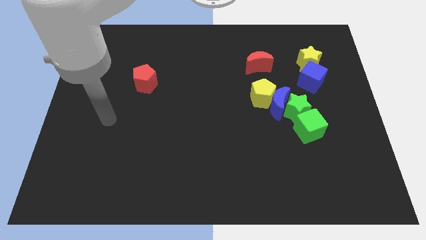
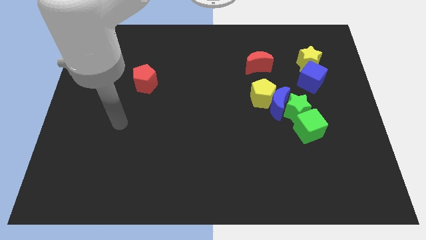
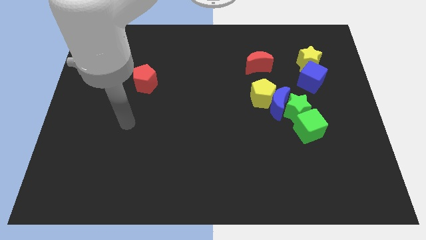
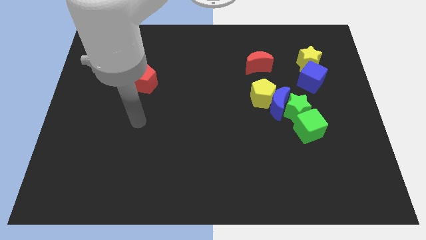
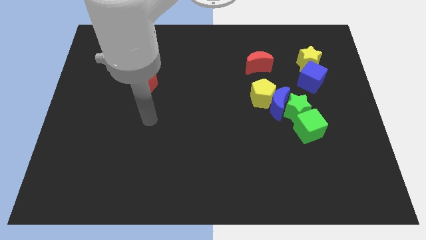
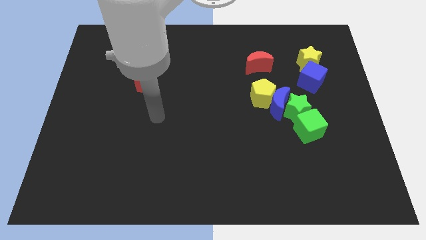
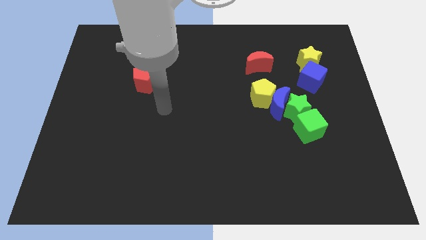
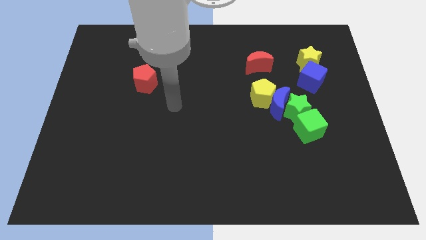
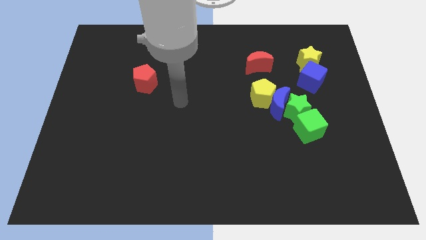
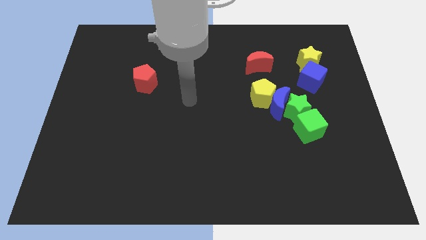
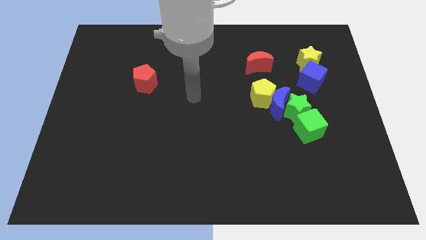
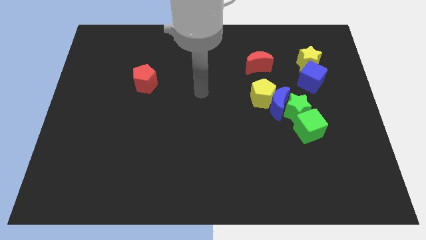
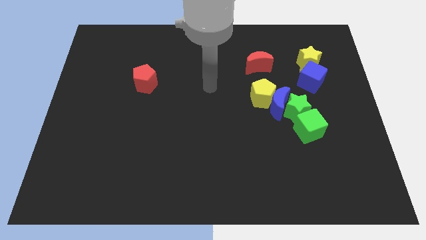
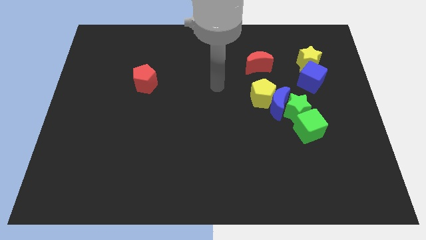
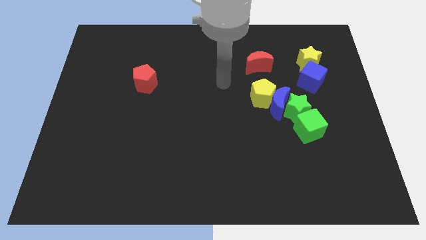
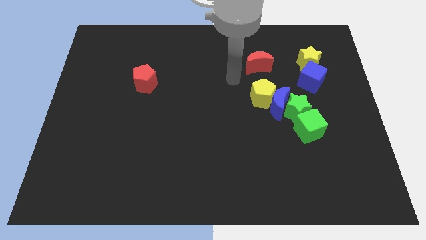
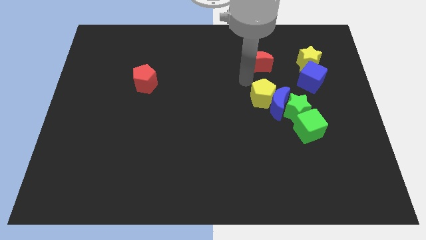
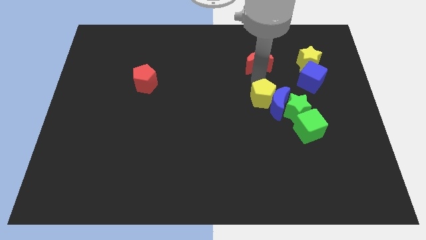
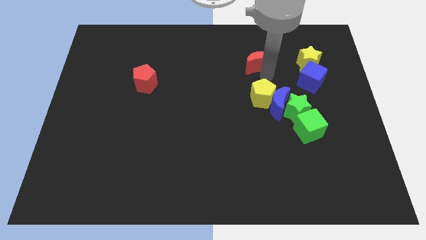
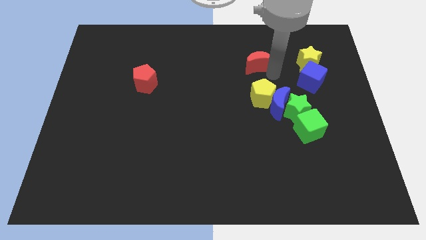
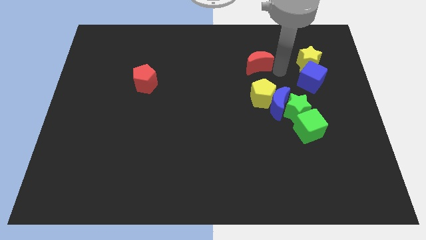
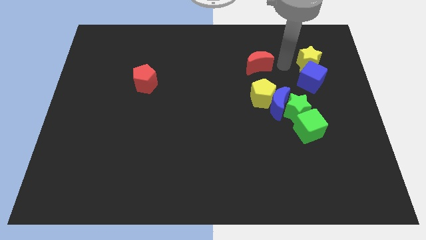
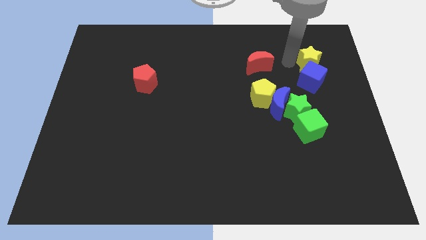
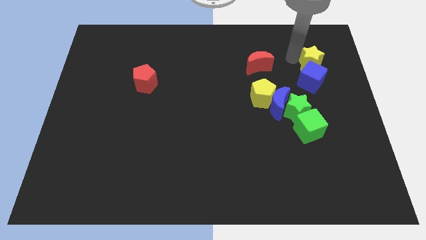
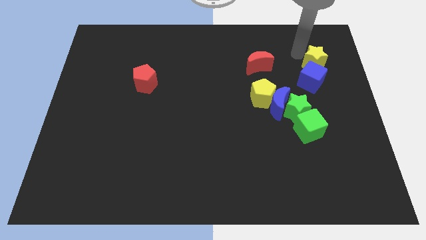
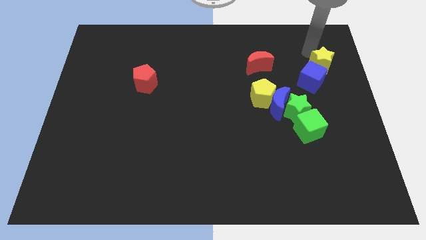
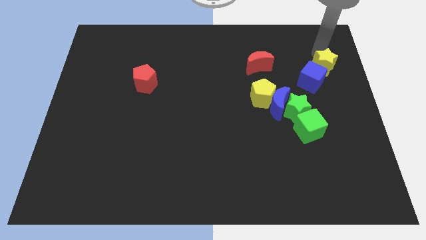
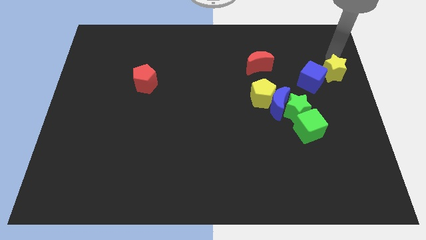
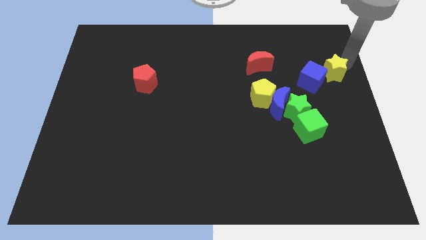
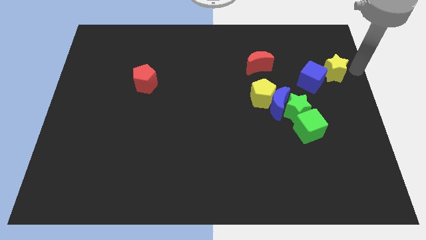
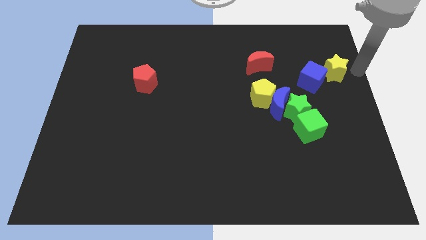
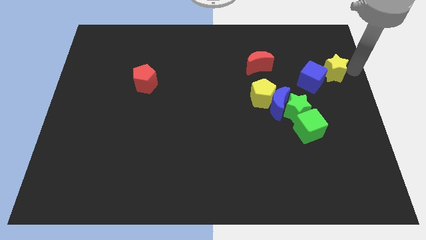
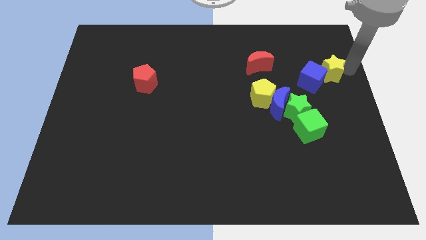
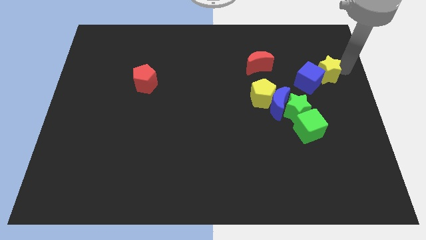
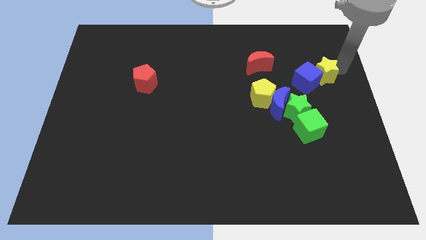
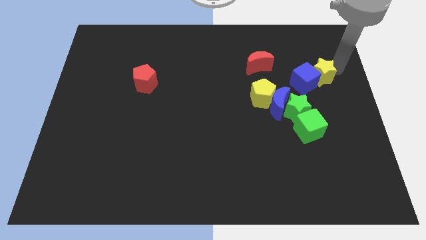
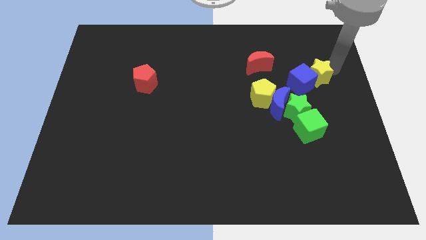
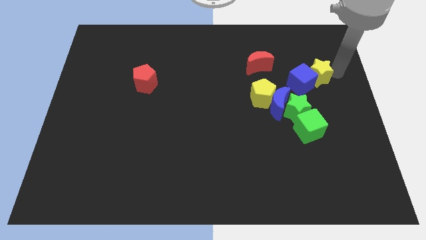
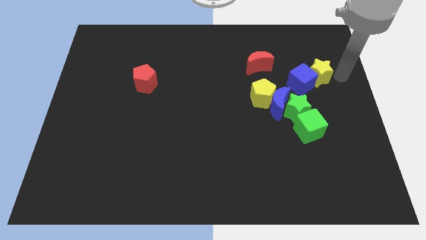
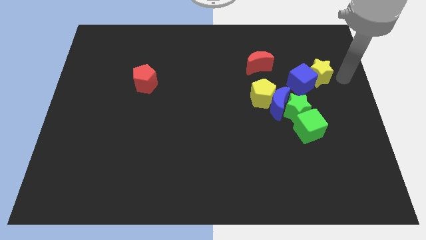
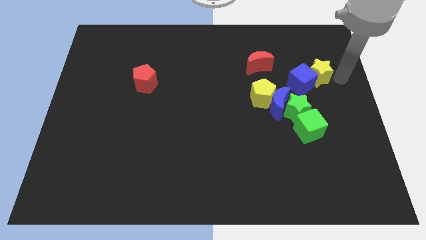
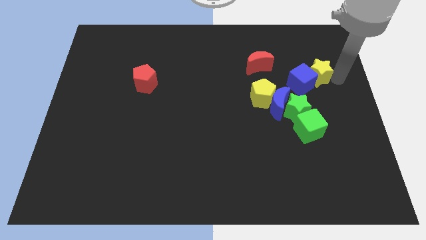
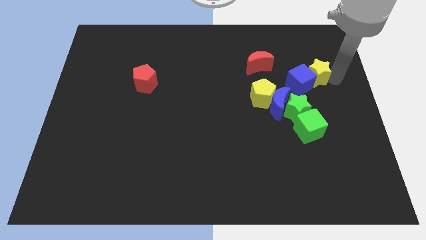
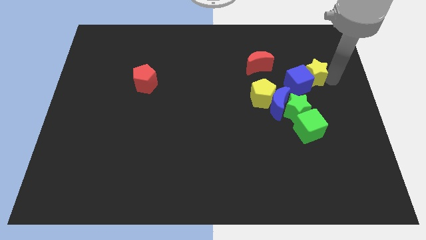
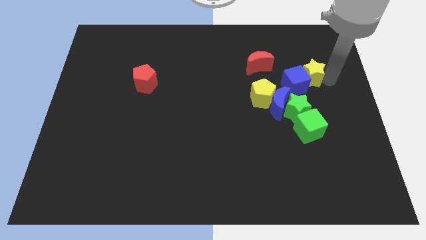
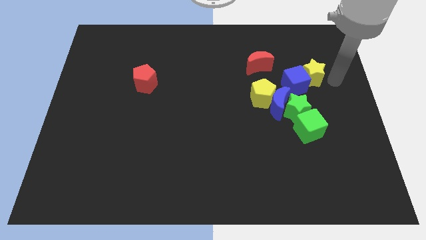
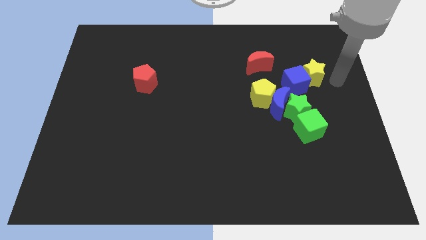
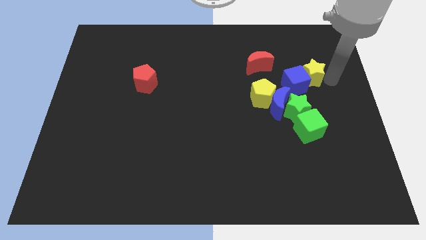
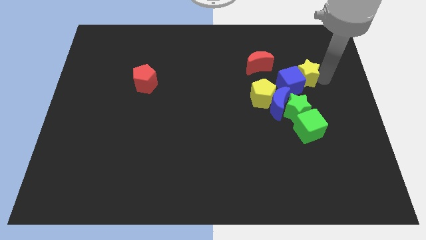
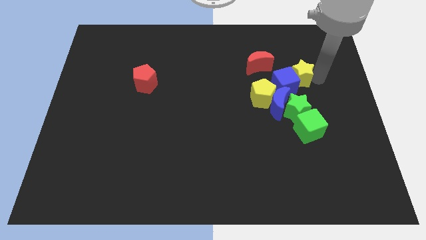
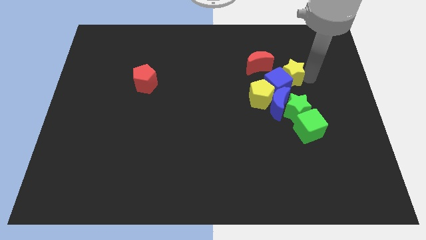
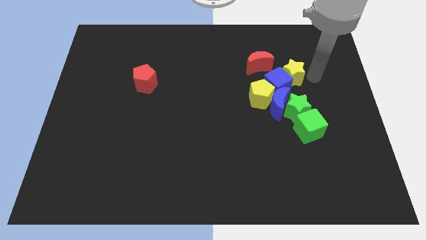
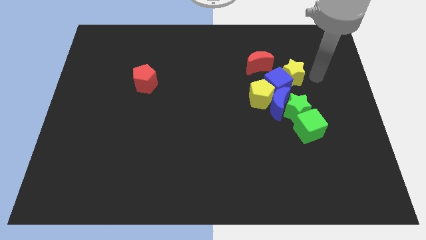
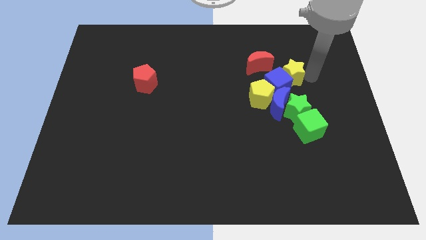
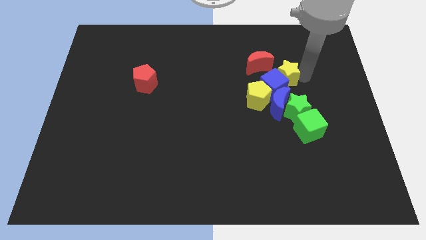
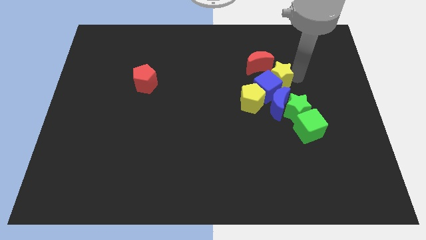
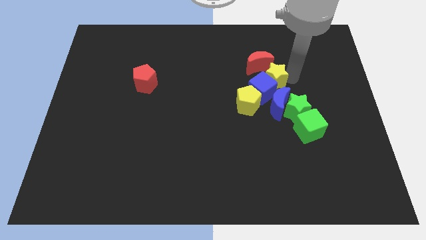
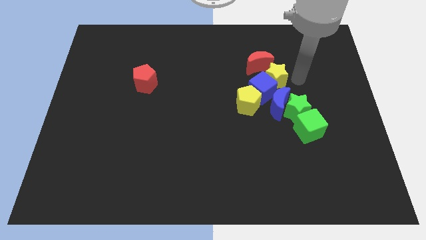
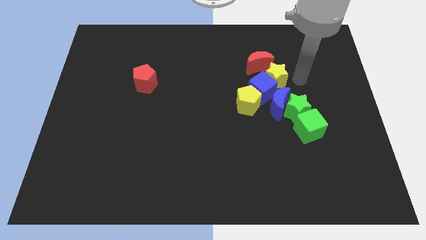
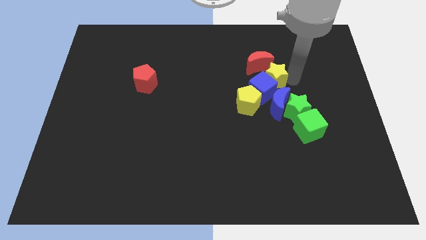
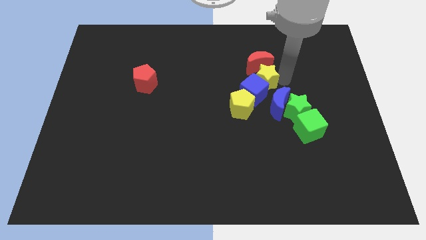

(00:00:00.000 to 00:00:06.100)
push the yellow star to the bottom left side of the red moon

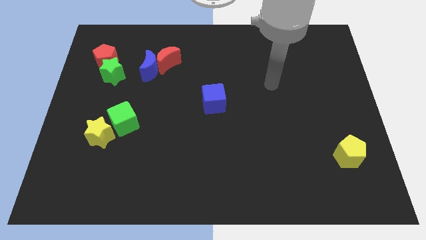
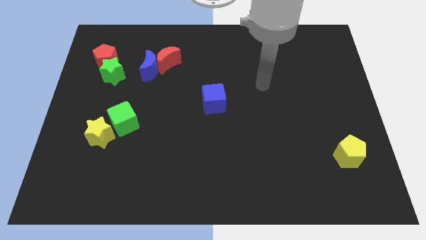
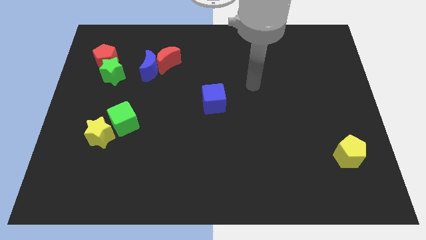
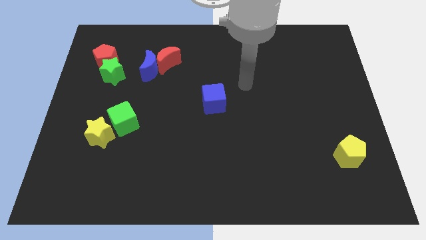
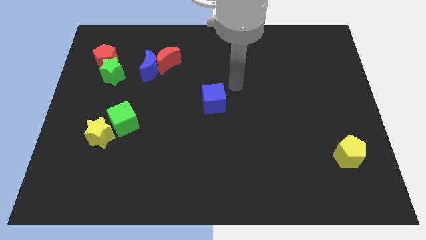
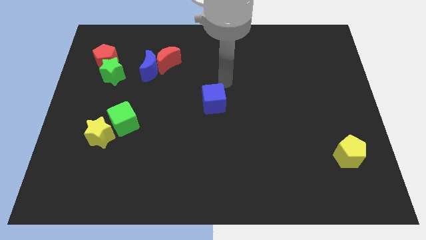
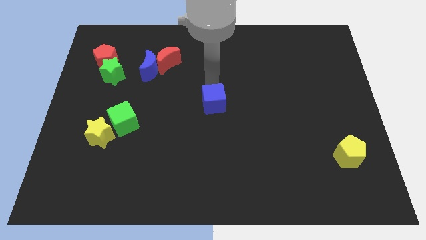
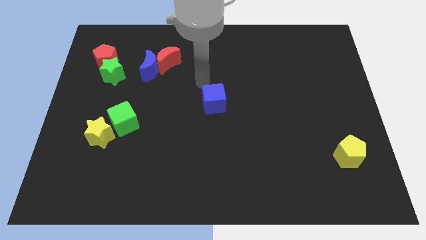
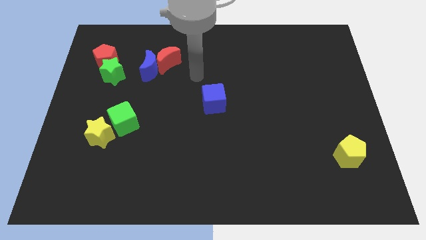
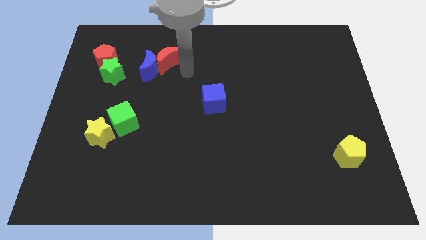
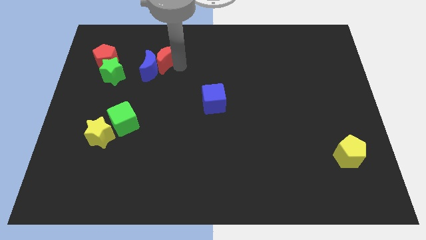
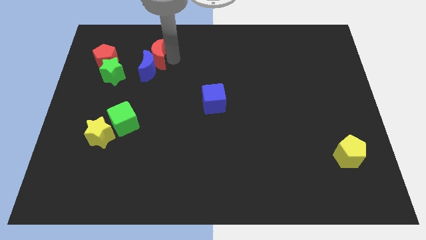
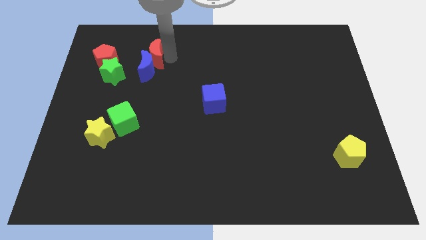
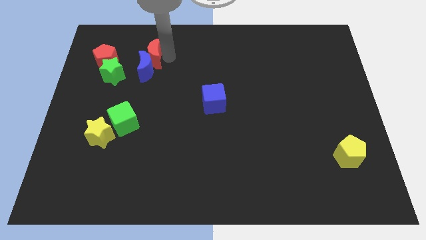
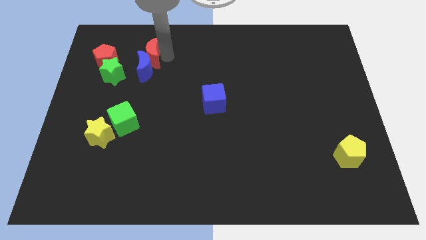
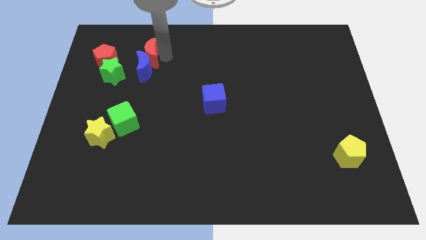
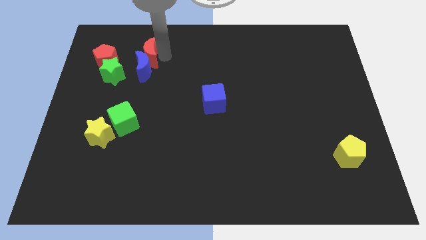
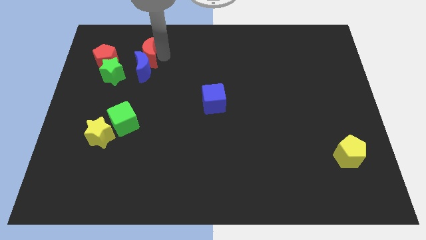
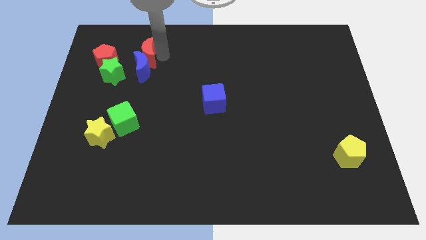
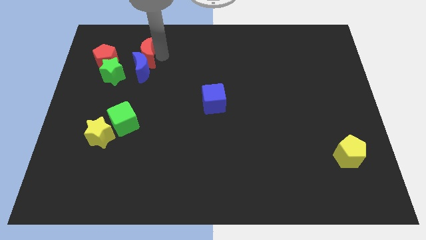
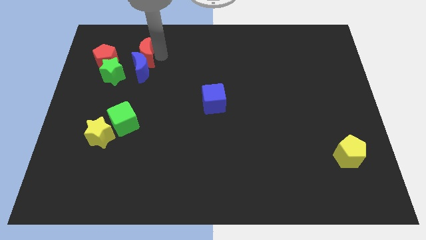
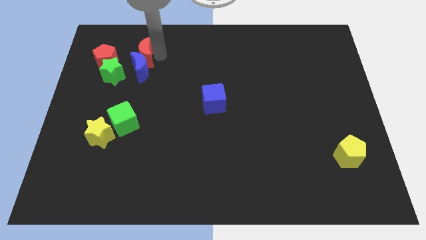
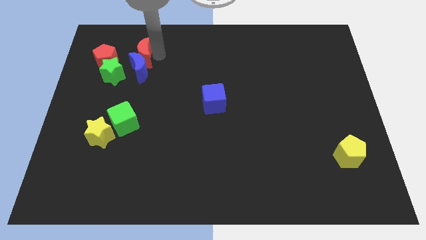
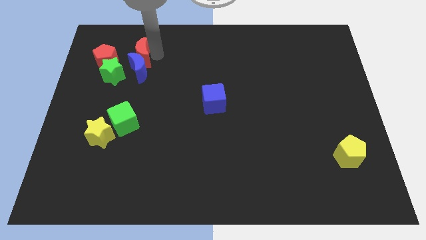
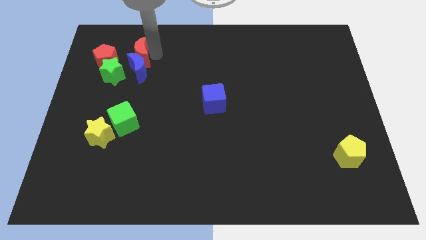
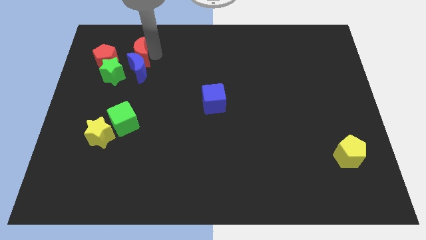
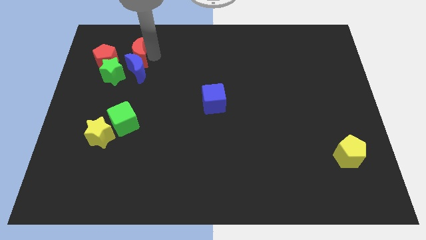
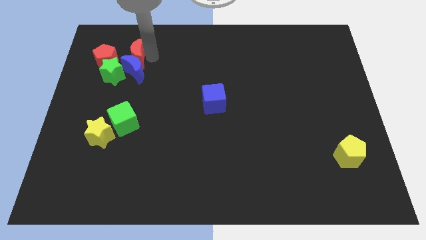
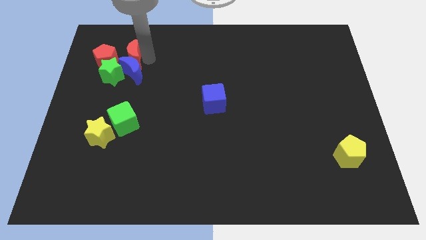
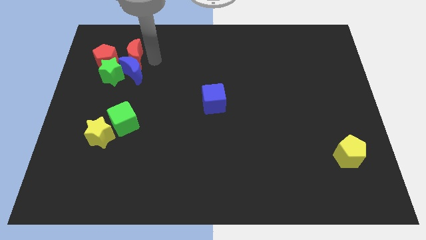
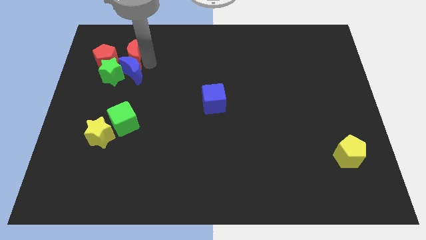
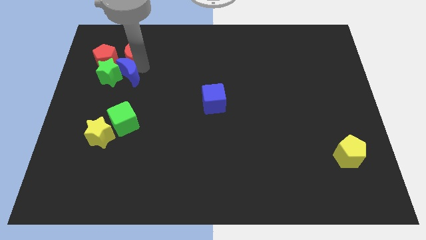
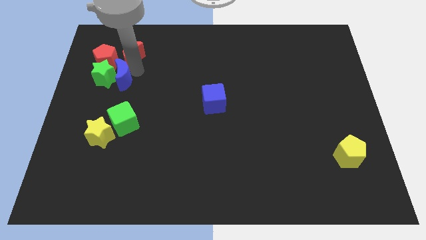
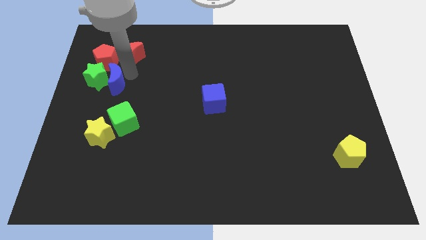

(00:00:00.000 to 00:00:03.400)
push the blue moon below the red pentagon
